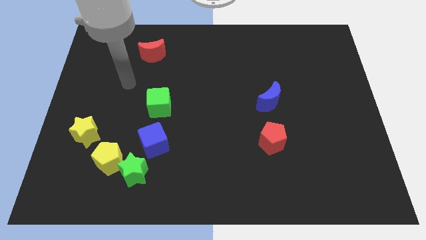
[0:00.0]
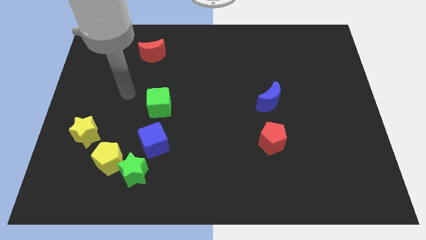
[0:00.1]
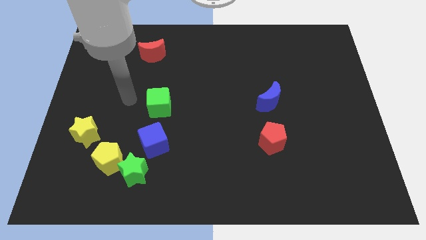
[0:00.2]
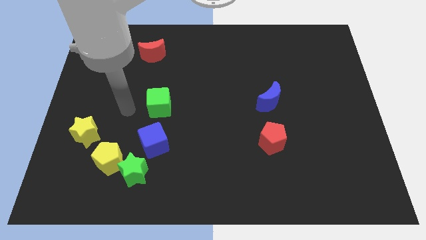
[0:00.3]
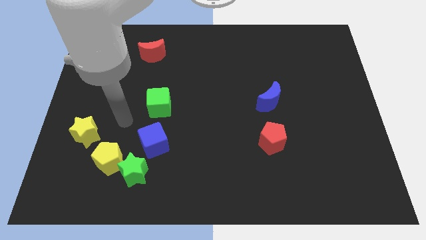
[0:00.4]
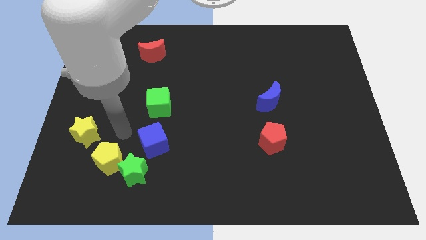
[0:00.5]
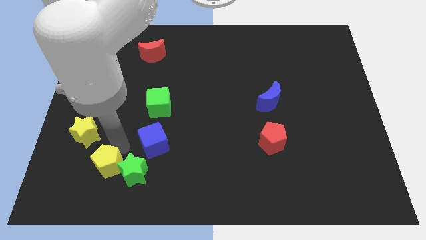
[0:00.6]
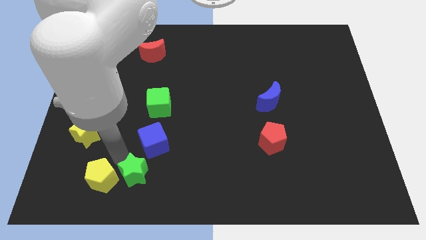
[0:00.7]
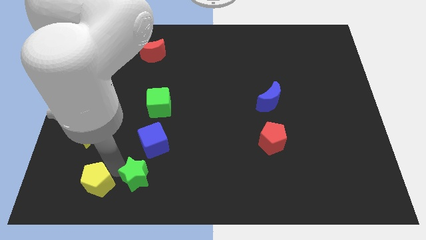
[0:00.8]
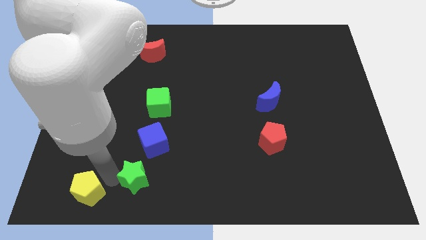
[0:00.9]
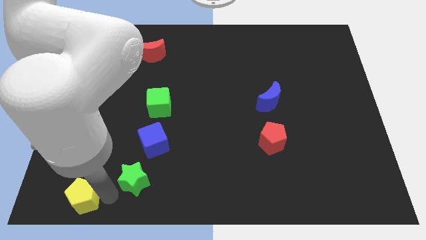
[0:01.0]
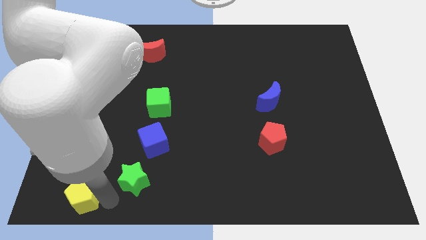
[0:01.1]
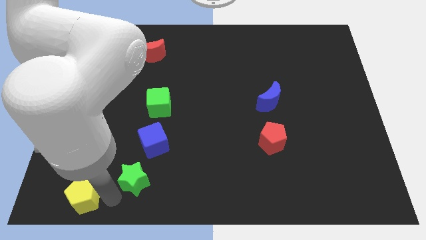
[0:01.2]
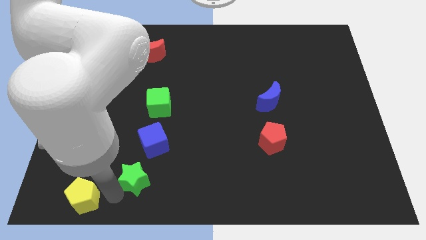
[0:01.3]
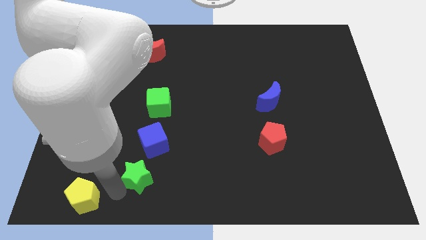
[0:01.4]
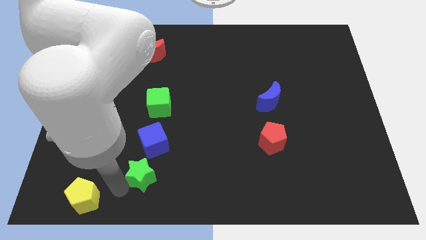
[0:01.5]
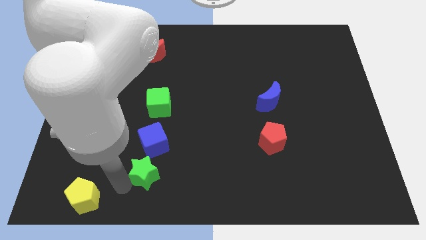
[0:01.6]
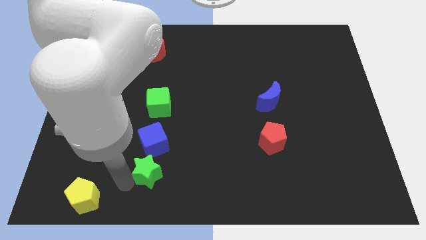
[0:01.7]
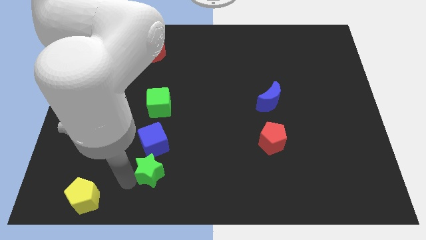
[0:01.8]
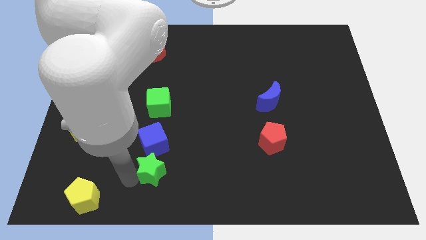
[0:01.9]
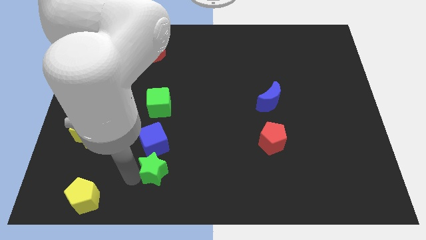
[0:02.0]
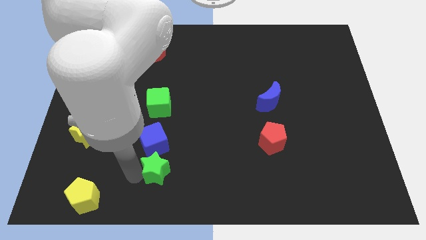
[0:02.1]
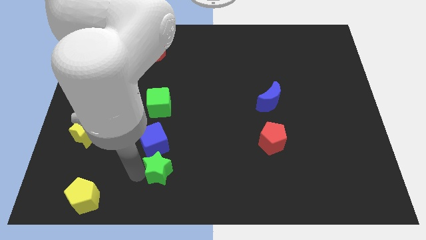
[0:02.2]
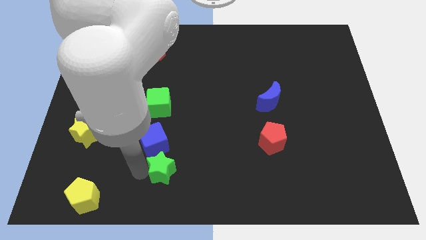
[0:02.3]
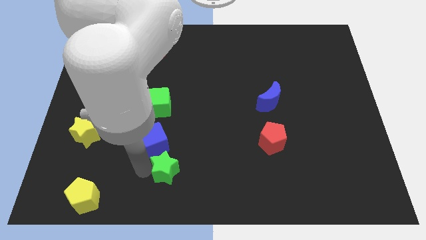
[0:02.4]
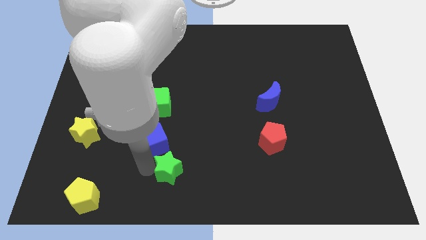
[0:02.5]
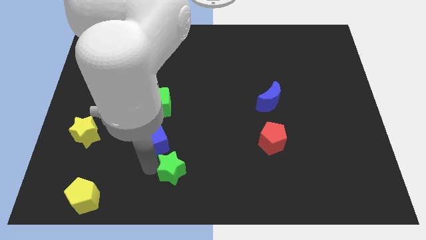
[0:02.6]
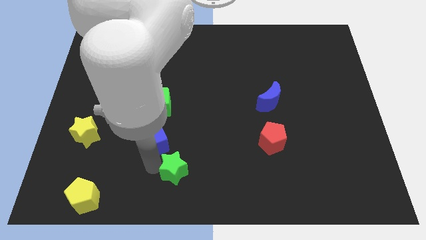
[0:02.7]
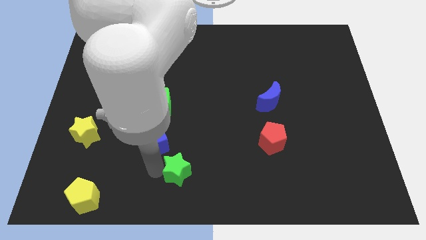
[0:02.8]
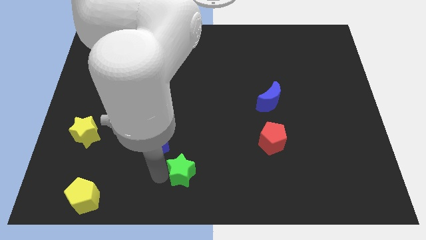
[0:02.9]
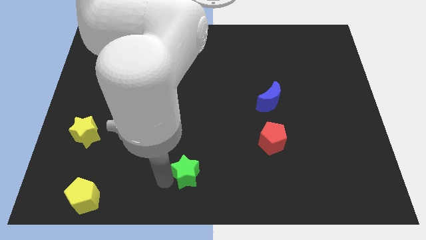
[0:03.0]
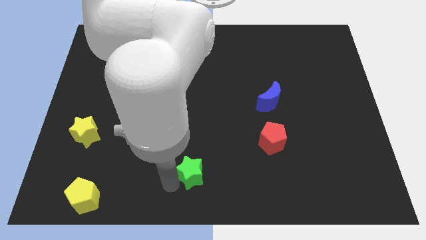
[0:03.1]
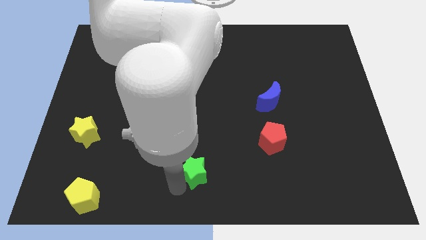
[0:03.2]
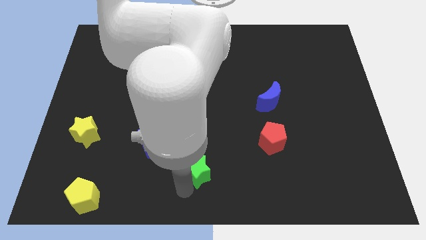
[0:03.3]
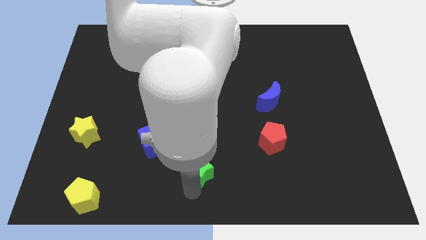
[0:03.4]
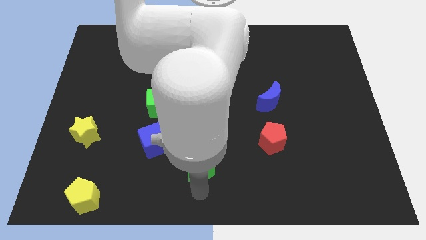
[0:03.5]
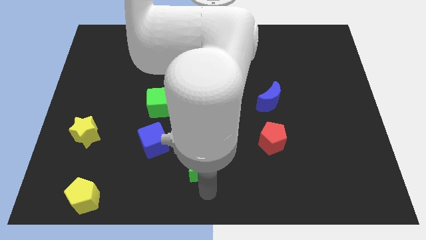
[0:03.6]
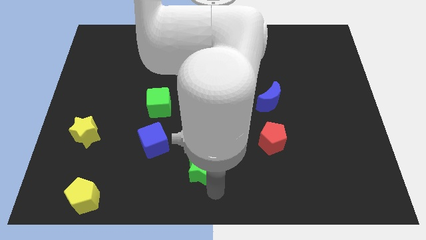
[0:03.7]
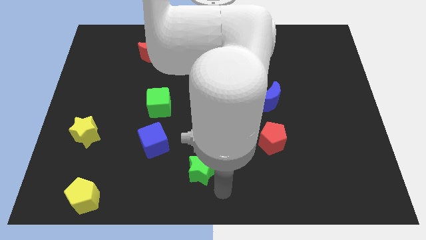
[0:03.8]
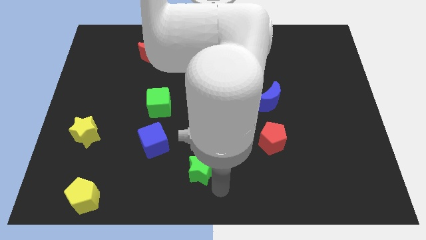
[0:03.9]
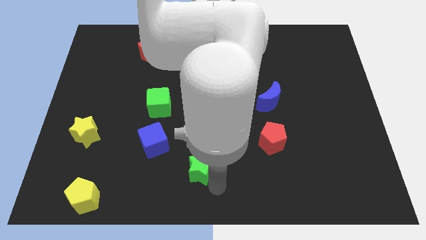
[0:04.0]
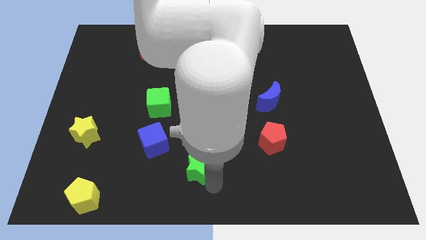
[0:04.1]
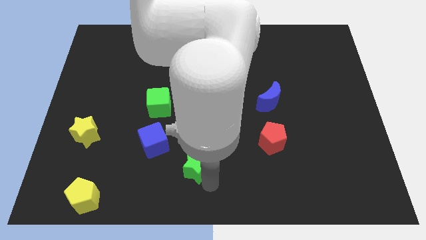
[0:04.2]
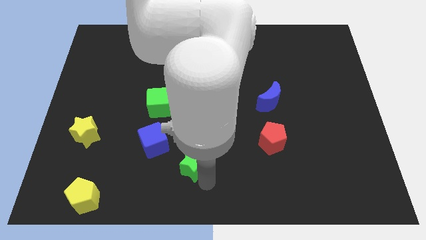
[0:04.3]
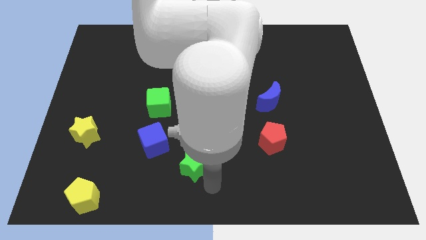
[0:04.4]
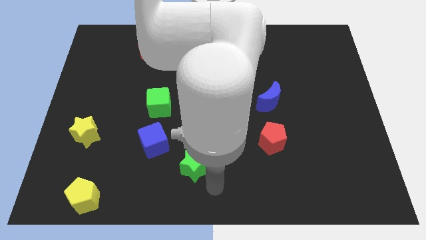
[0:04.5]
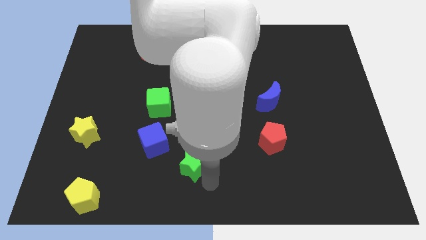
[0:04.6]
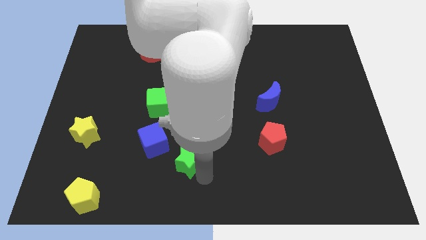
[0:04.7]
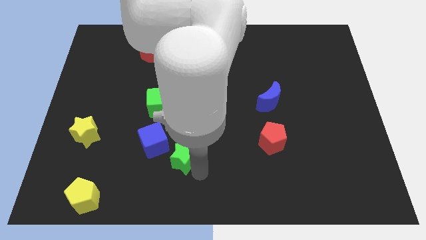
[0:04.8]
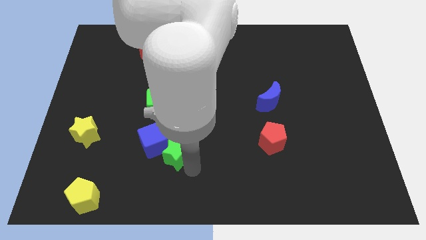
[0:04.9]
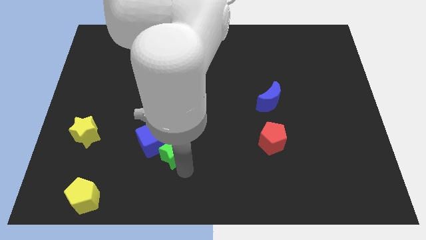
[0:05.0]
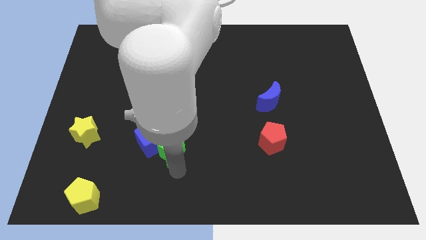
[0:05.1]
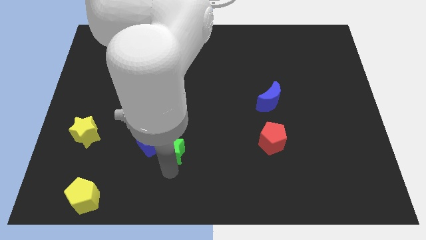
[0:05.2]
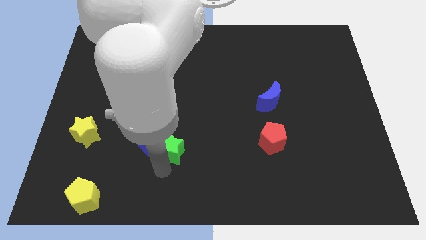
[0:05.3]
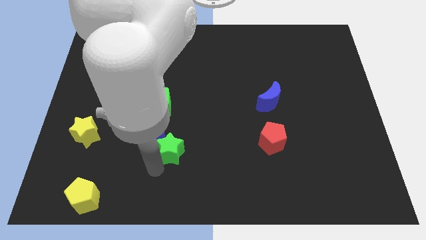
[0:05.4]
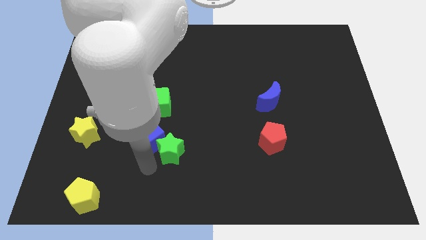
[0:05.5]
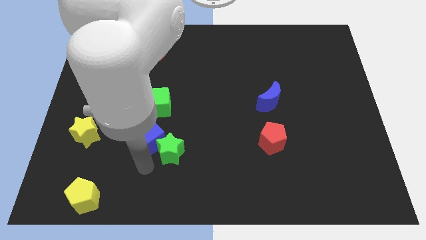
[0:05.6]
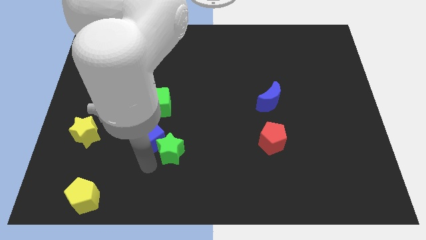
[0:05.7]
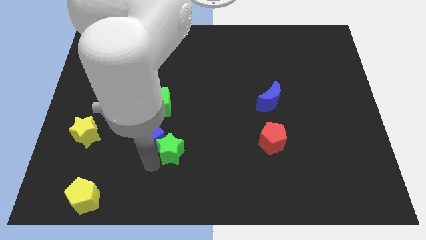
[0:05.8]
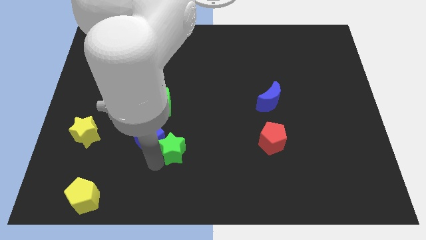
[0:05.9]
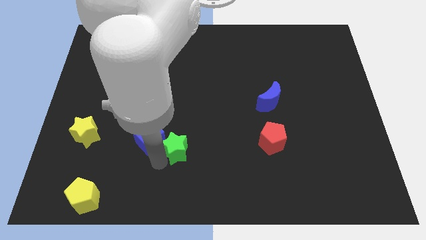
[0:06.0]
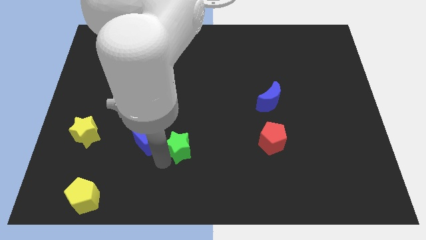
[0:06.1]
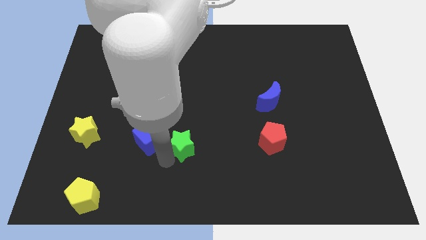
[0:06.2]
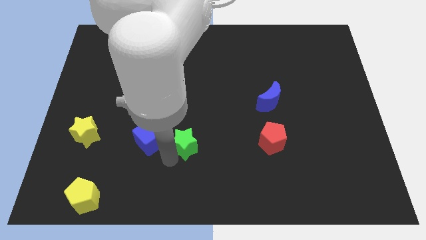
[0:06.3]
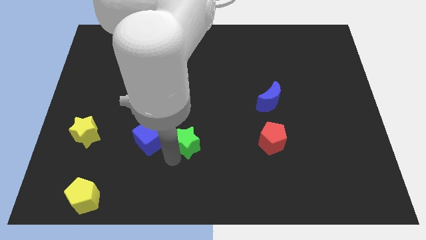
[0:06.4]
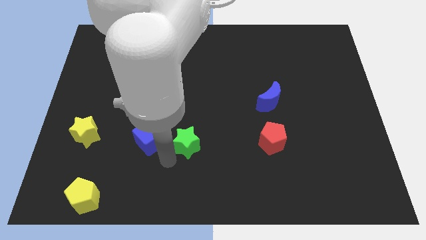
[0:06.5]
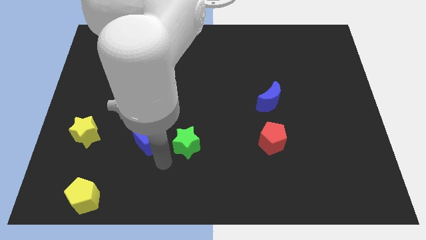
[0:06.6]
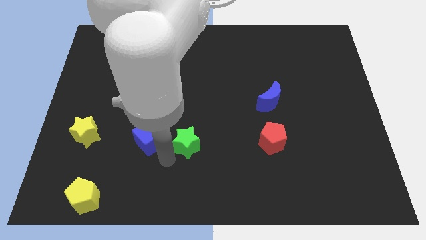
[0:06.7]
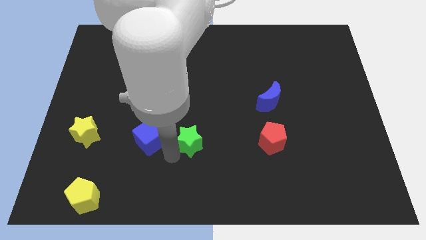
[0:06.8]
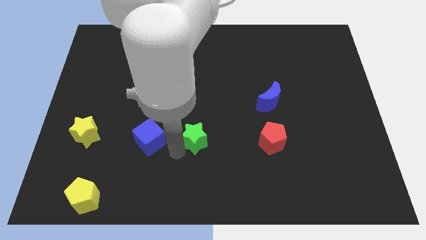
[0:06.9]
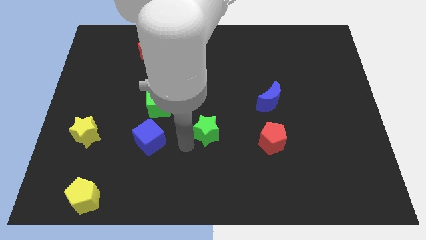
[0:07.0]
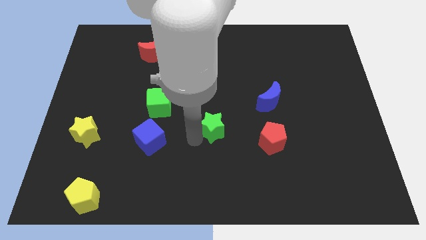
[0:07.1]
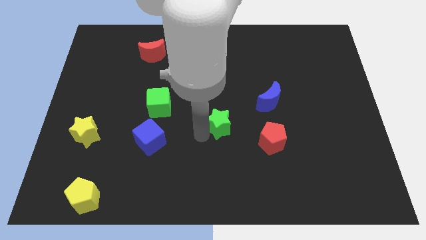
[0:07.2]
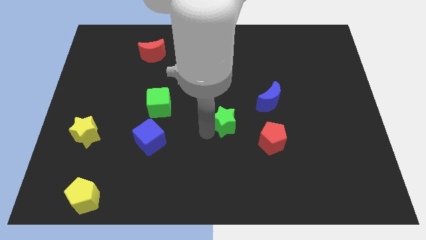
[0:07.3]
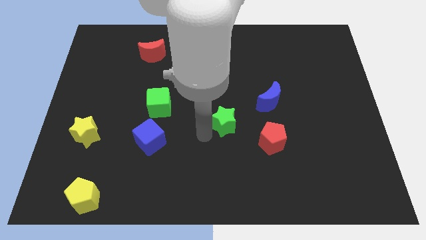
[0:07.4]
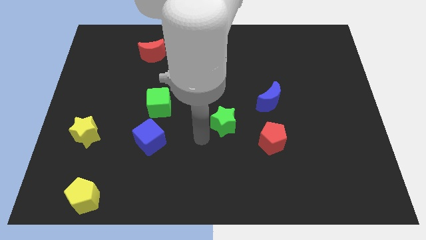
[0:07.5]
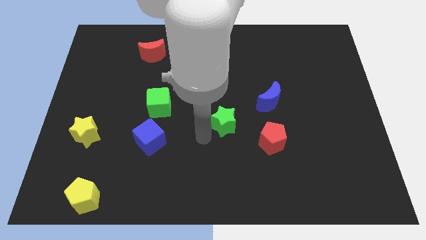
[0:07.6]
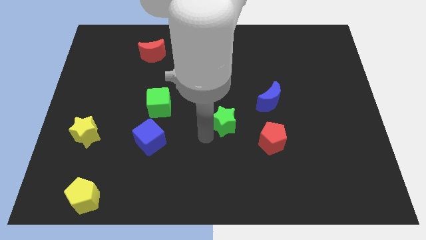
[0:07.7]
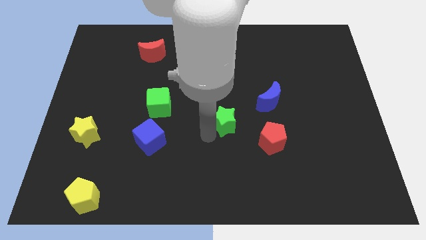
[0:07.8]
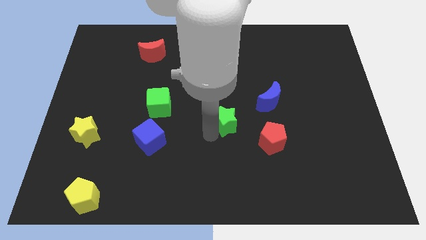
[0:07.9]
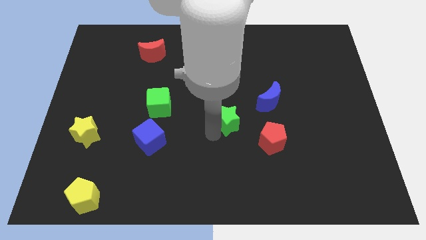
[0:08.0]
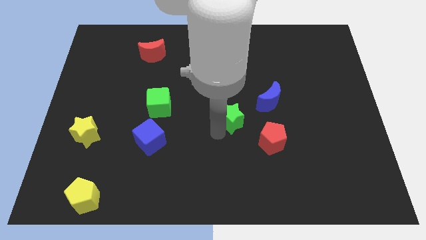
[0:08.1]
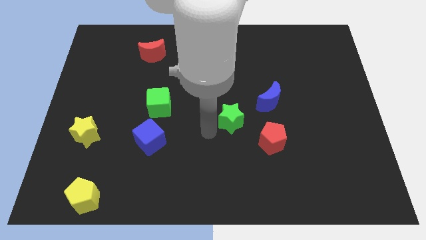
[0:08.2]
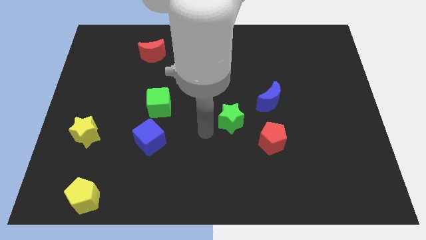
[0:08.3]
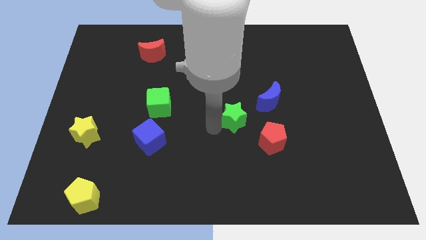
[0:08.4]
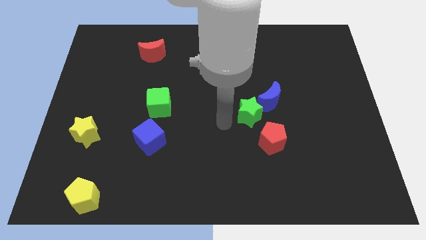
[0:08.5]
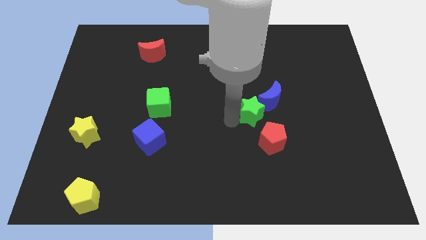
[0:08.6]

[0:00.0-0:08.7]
put the green star to the blue moon
